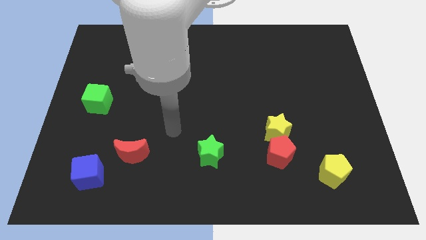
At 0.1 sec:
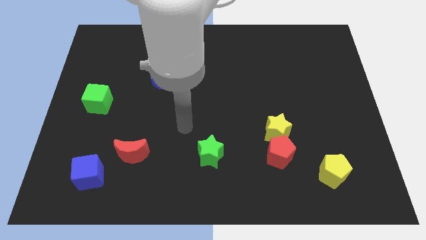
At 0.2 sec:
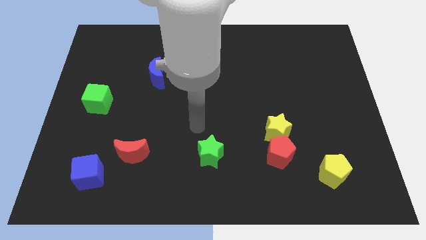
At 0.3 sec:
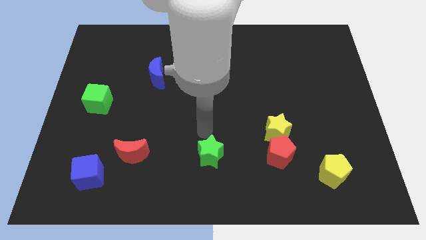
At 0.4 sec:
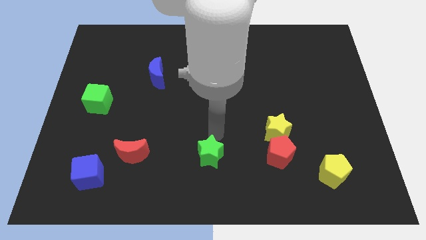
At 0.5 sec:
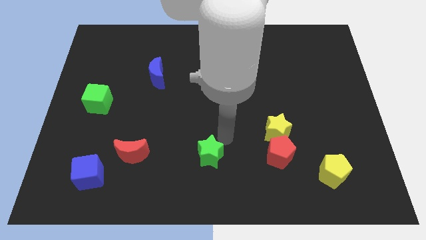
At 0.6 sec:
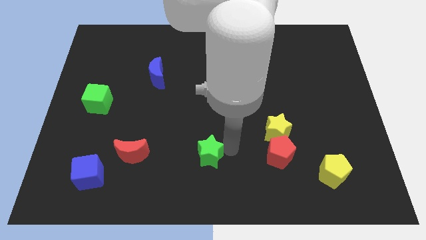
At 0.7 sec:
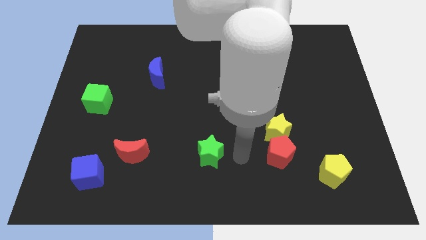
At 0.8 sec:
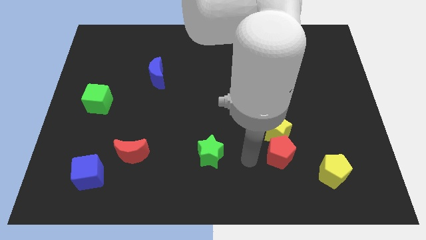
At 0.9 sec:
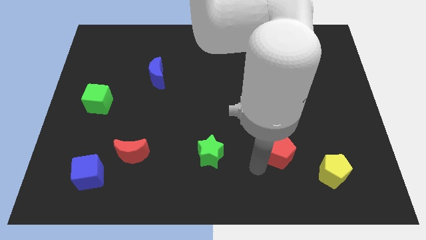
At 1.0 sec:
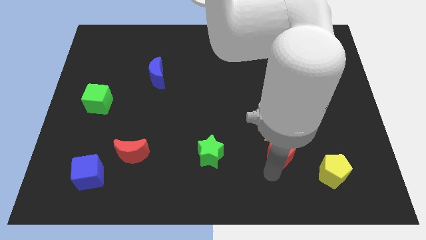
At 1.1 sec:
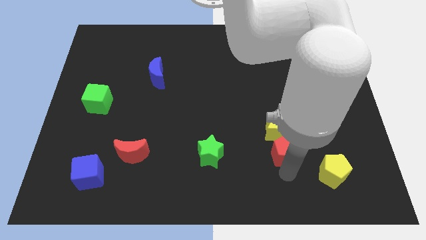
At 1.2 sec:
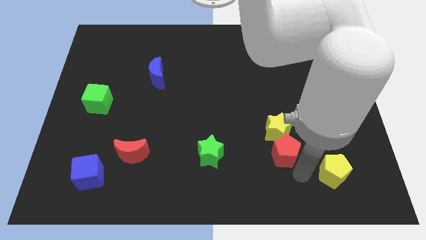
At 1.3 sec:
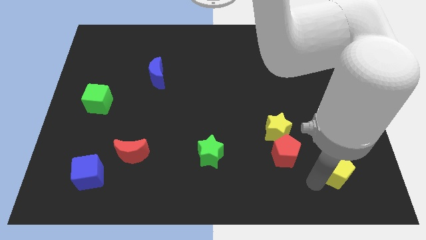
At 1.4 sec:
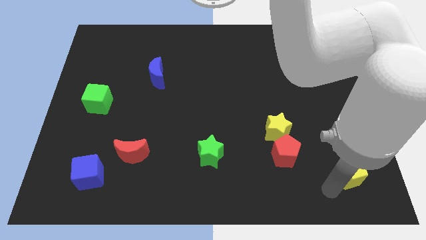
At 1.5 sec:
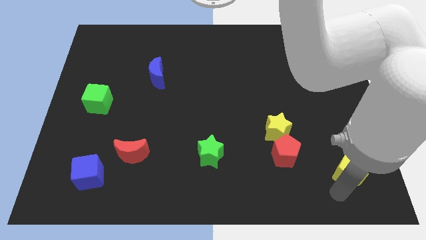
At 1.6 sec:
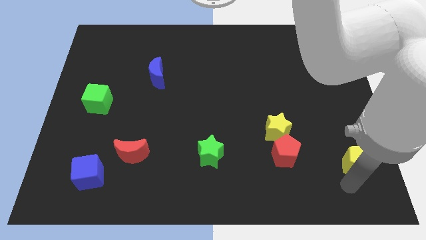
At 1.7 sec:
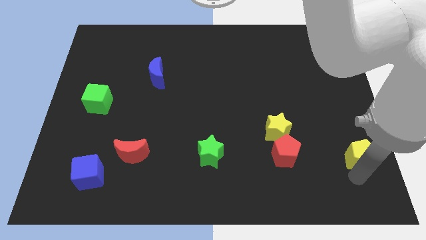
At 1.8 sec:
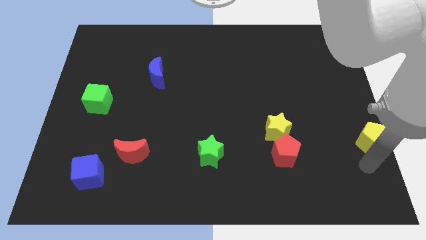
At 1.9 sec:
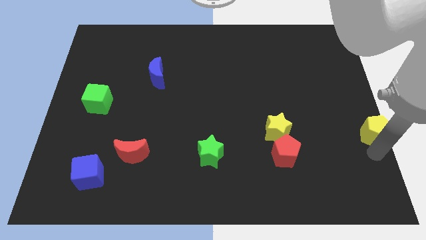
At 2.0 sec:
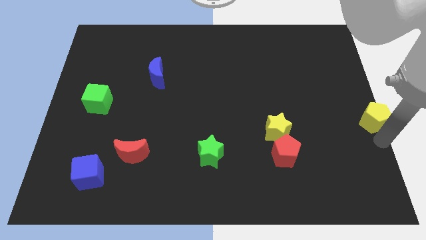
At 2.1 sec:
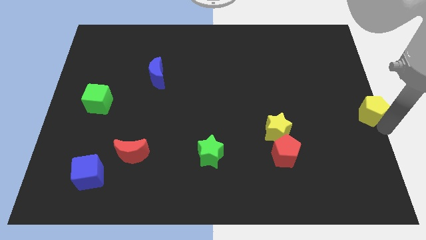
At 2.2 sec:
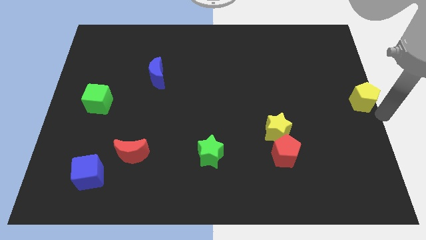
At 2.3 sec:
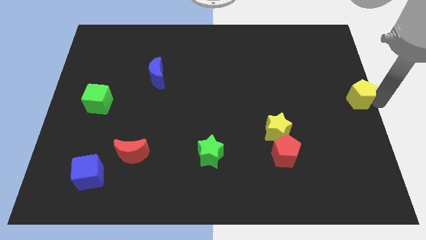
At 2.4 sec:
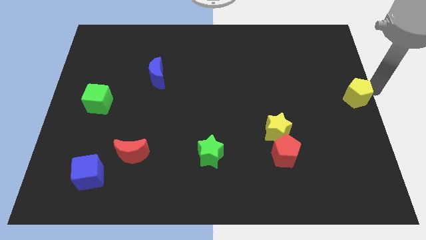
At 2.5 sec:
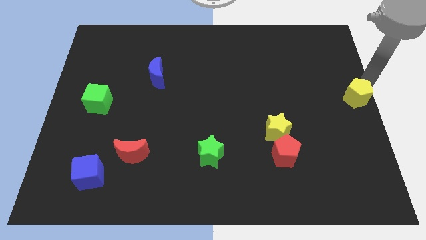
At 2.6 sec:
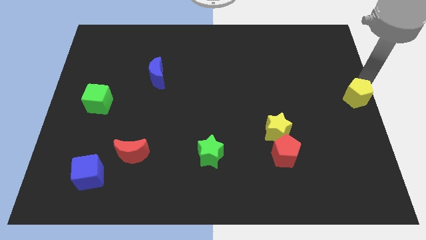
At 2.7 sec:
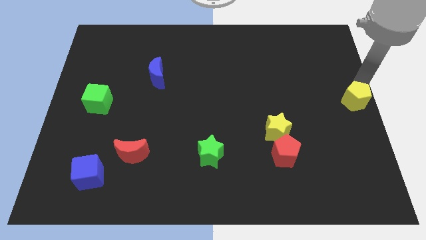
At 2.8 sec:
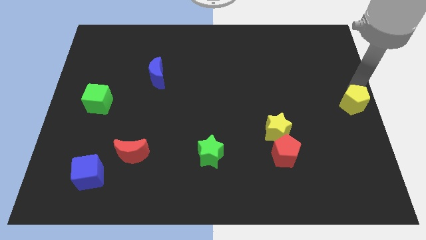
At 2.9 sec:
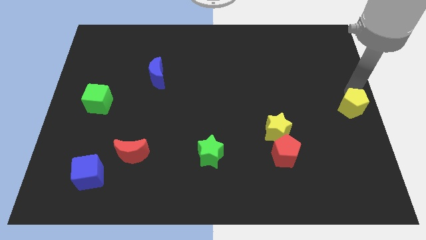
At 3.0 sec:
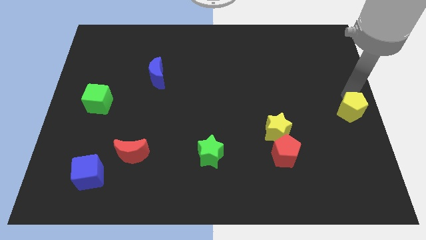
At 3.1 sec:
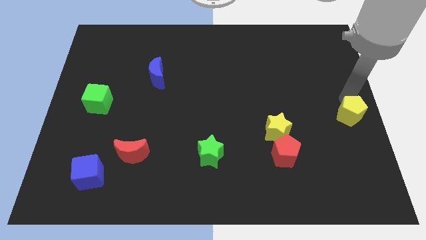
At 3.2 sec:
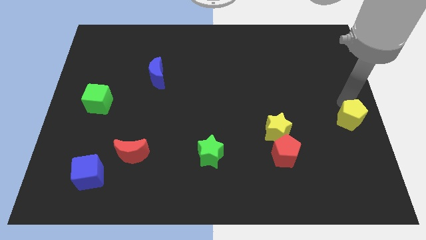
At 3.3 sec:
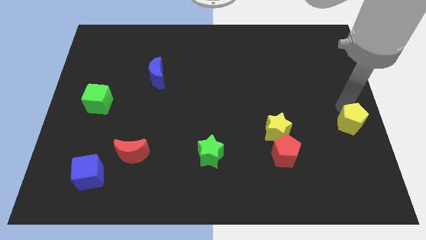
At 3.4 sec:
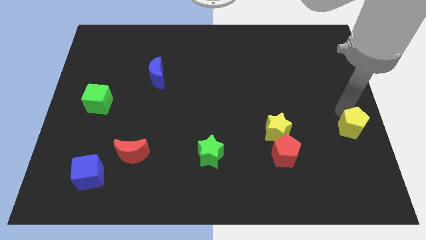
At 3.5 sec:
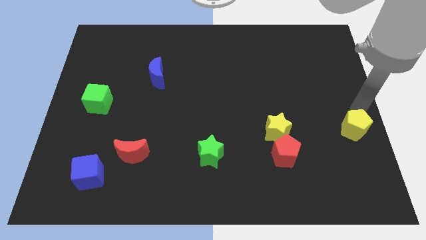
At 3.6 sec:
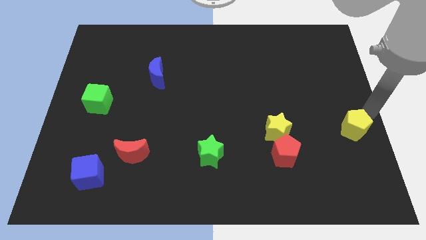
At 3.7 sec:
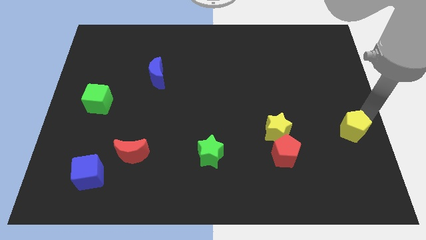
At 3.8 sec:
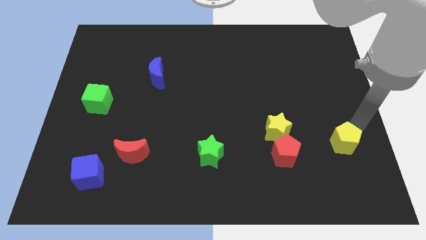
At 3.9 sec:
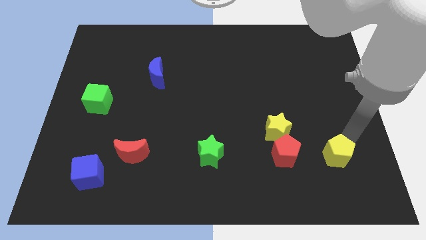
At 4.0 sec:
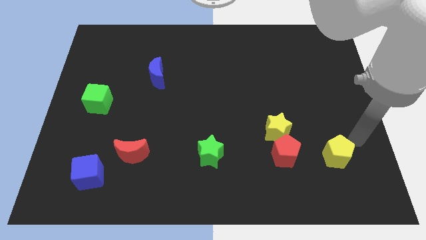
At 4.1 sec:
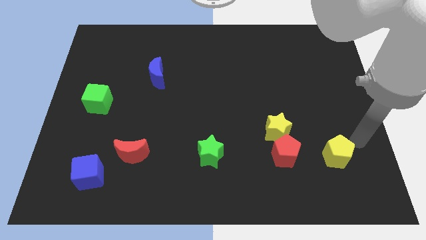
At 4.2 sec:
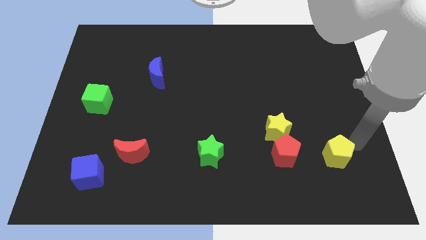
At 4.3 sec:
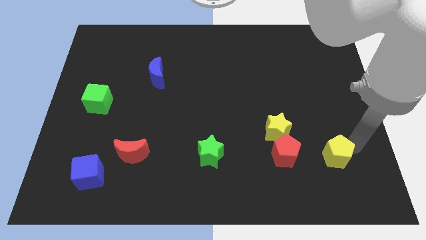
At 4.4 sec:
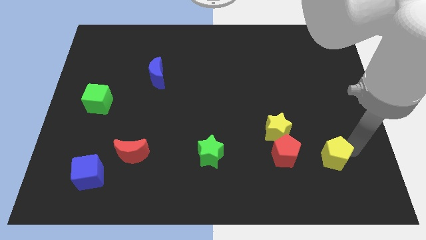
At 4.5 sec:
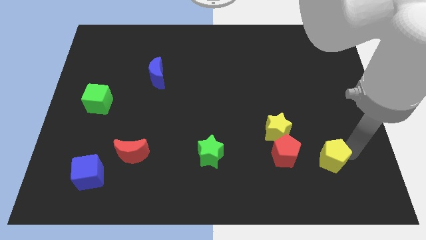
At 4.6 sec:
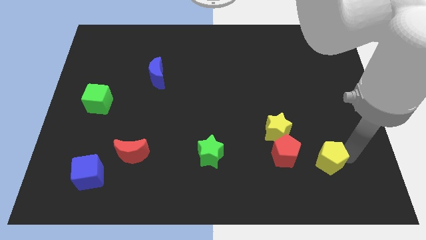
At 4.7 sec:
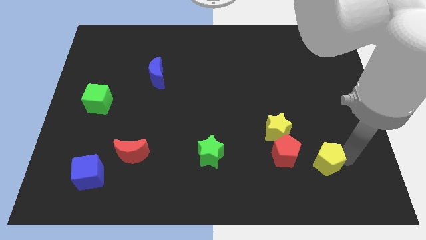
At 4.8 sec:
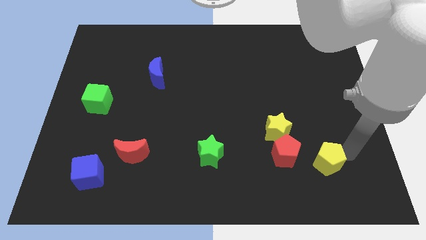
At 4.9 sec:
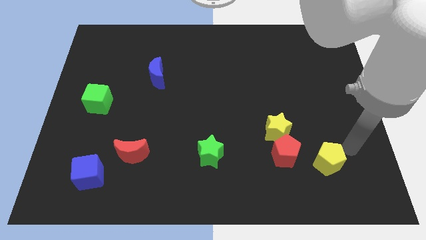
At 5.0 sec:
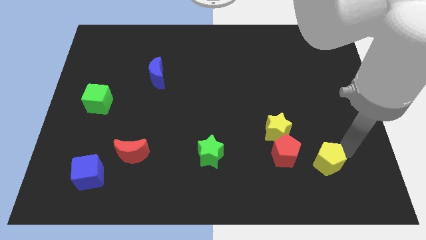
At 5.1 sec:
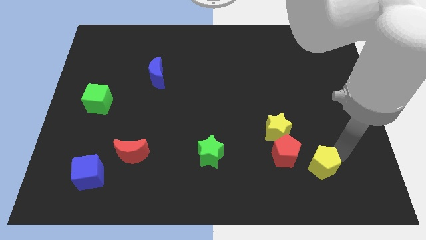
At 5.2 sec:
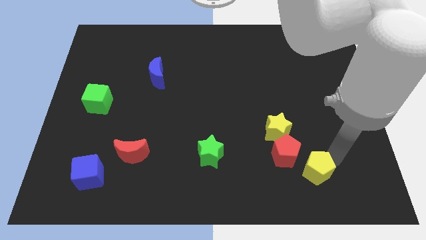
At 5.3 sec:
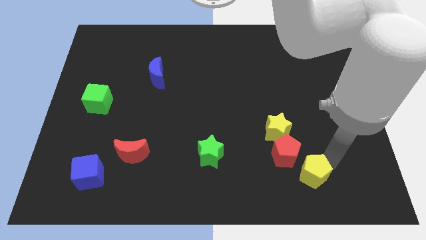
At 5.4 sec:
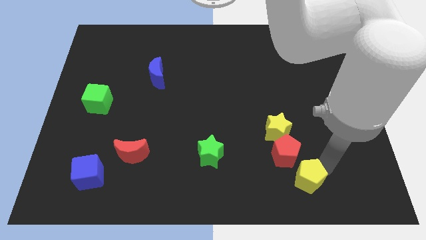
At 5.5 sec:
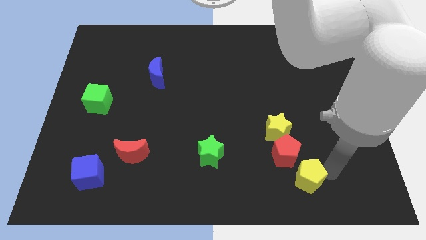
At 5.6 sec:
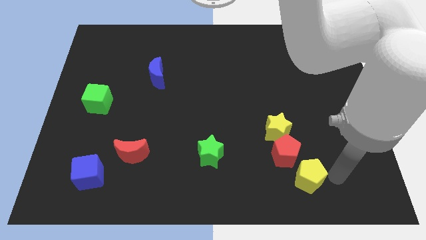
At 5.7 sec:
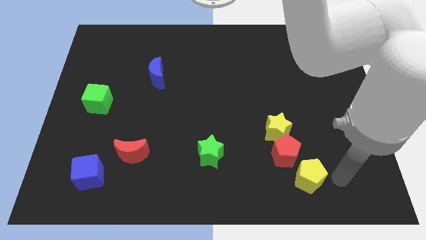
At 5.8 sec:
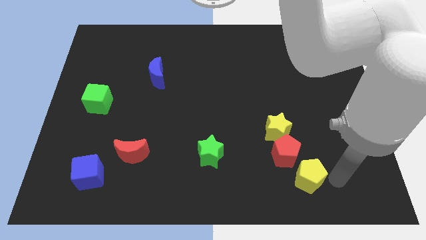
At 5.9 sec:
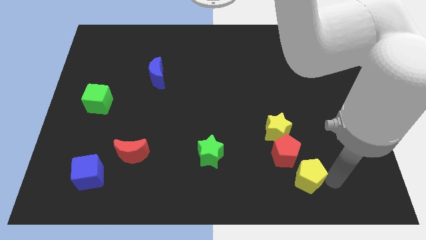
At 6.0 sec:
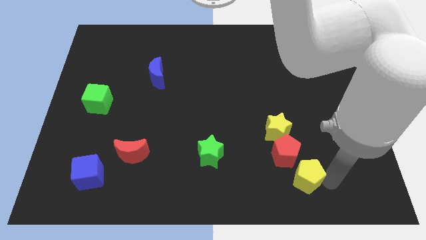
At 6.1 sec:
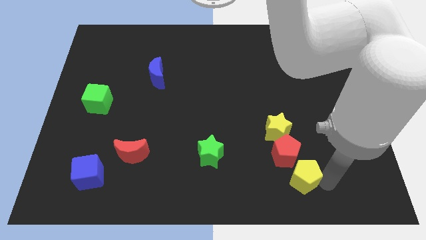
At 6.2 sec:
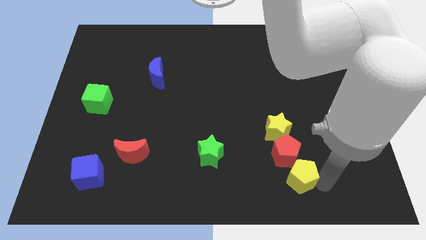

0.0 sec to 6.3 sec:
slightly slide the yellow pentagon to the left

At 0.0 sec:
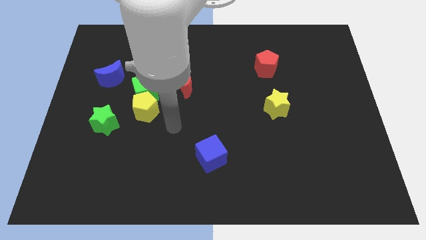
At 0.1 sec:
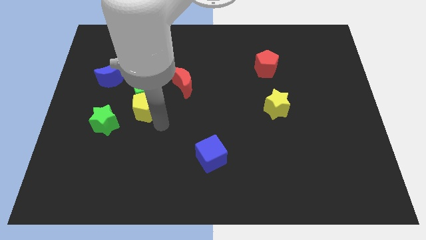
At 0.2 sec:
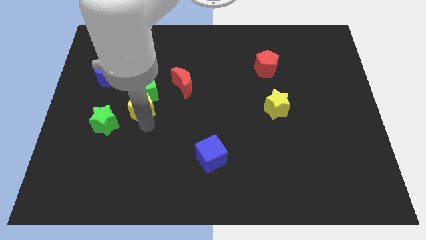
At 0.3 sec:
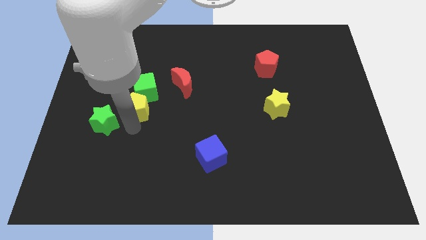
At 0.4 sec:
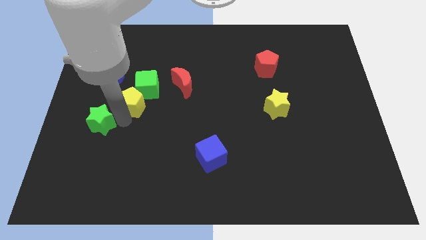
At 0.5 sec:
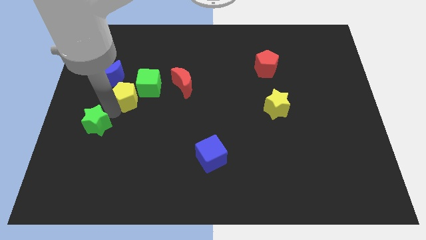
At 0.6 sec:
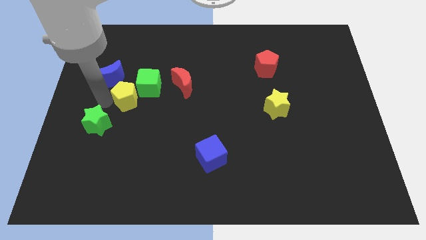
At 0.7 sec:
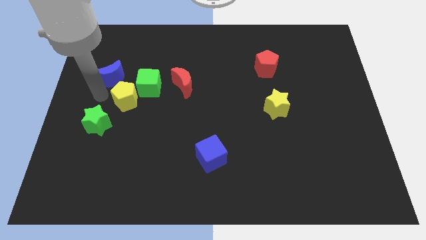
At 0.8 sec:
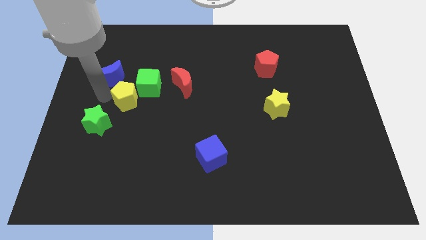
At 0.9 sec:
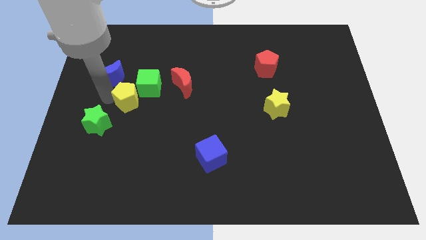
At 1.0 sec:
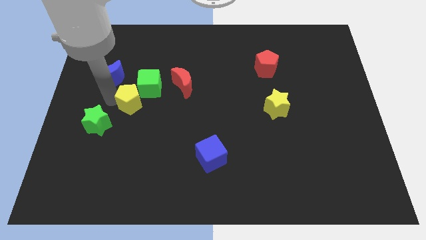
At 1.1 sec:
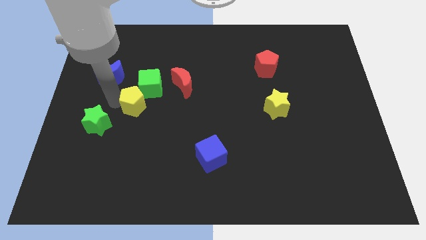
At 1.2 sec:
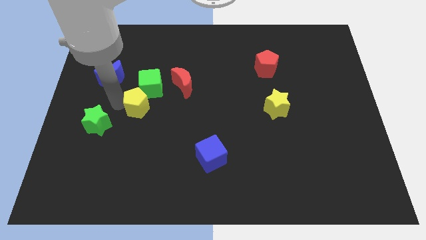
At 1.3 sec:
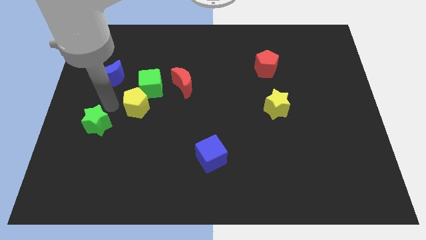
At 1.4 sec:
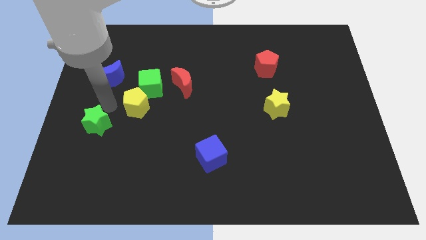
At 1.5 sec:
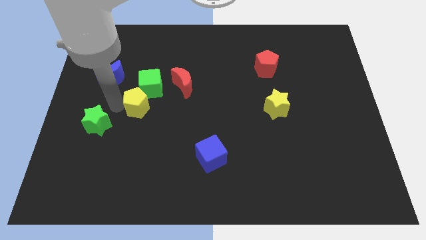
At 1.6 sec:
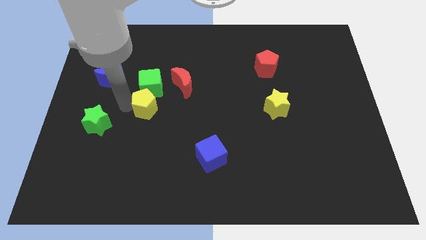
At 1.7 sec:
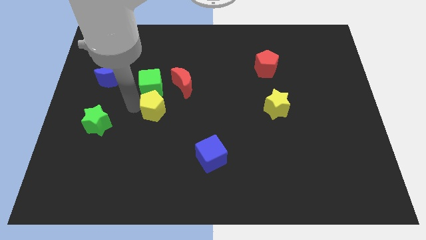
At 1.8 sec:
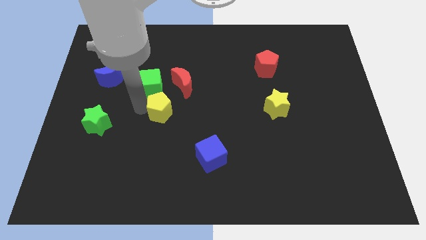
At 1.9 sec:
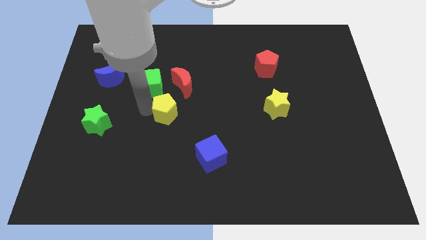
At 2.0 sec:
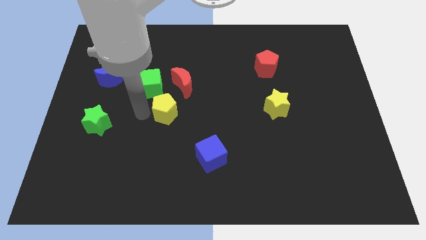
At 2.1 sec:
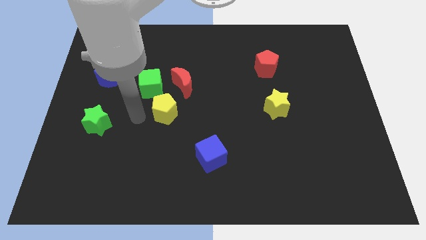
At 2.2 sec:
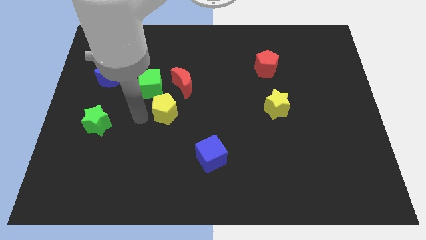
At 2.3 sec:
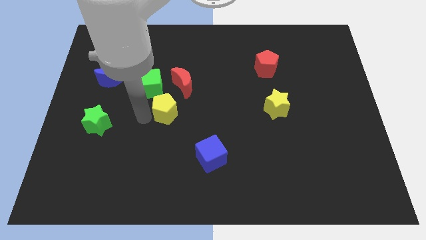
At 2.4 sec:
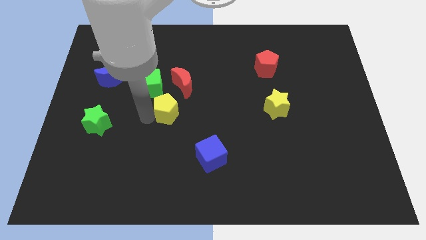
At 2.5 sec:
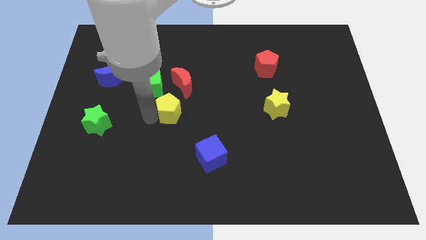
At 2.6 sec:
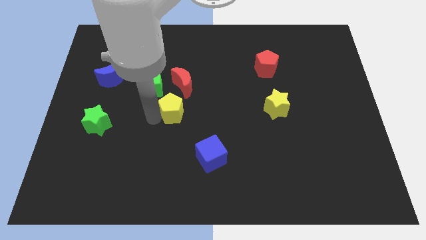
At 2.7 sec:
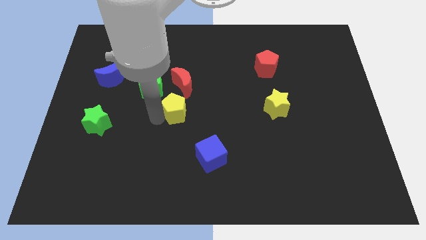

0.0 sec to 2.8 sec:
slide the yellow pentagon right a bit
